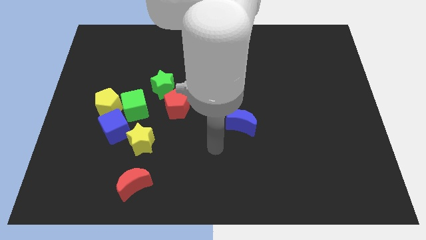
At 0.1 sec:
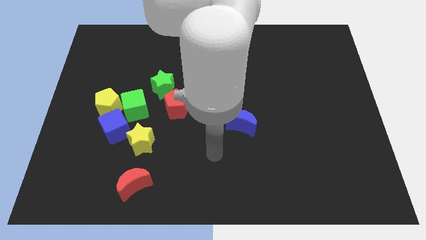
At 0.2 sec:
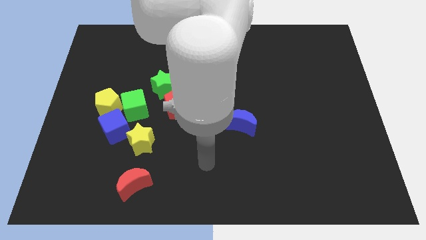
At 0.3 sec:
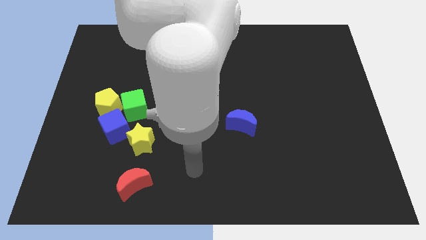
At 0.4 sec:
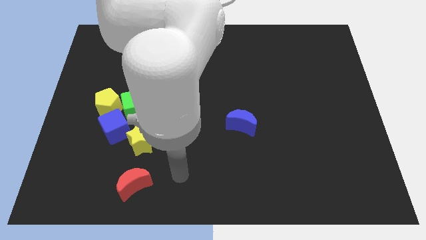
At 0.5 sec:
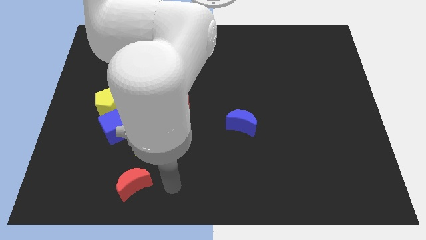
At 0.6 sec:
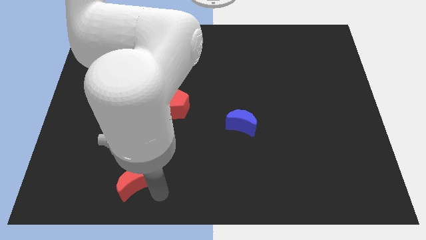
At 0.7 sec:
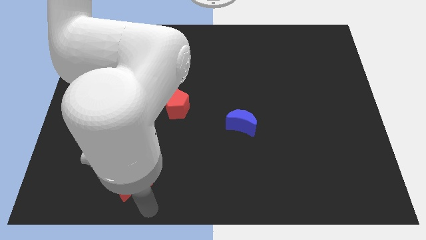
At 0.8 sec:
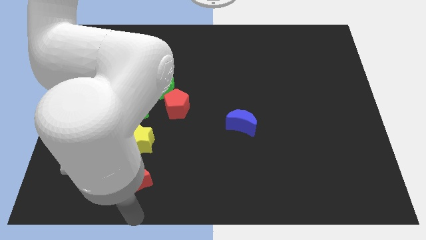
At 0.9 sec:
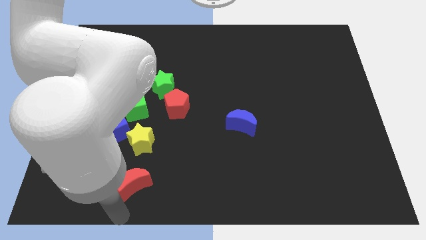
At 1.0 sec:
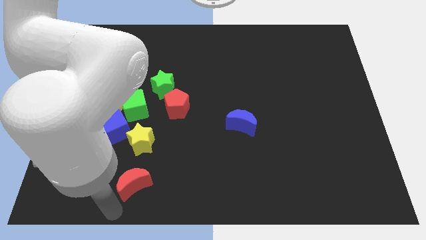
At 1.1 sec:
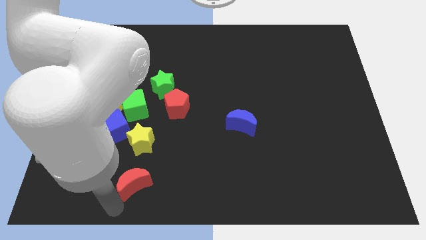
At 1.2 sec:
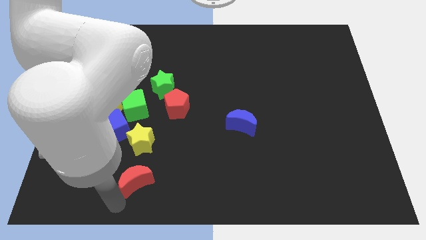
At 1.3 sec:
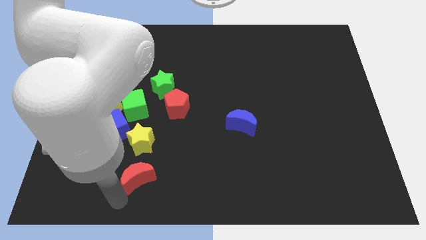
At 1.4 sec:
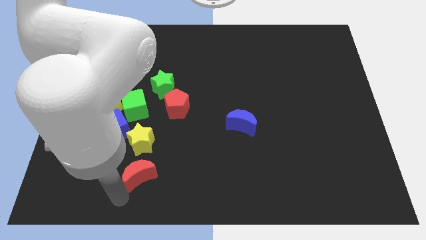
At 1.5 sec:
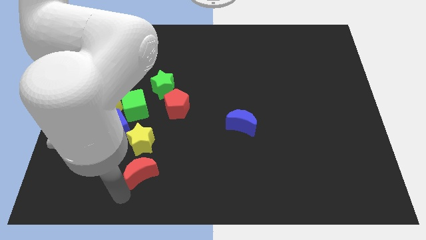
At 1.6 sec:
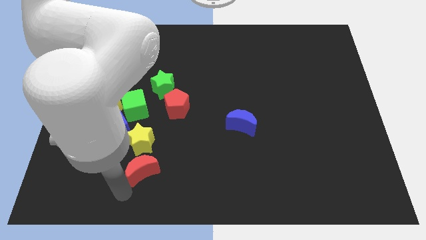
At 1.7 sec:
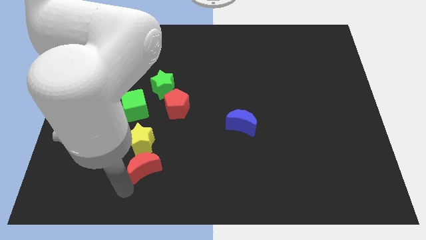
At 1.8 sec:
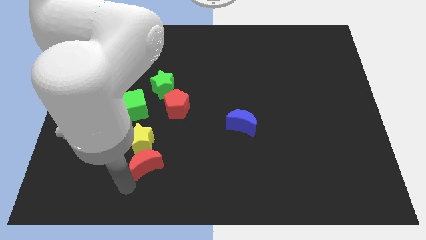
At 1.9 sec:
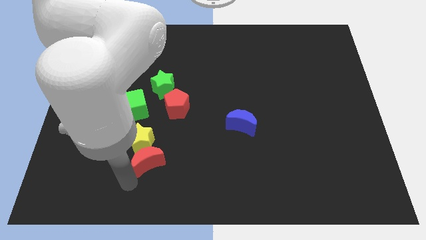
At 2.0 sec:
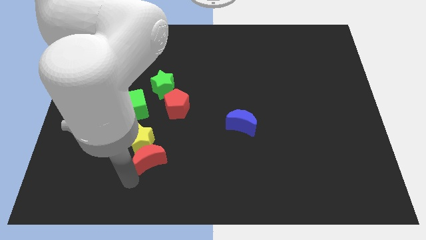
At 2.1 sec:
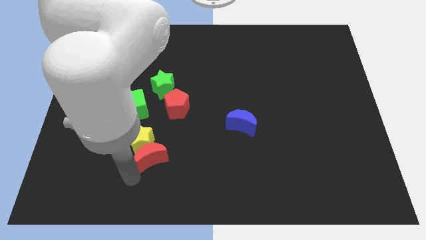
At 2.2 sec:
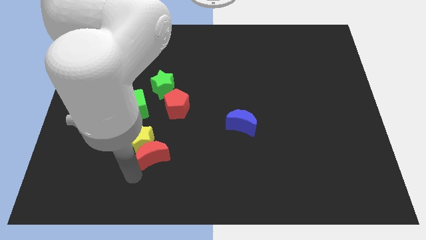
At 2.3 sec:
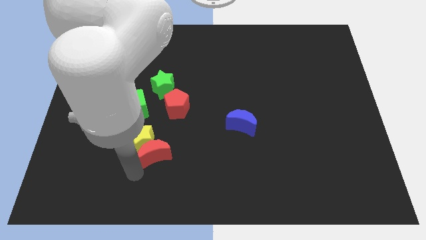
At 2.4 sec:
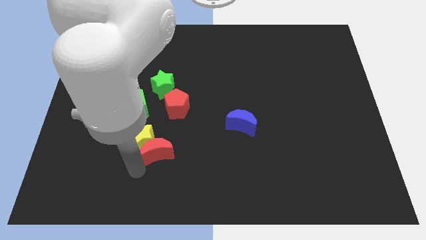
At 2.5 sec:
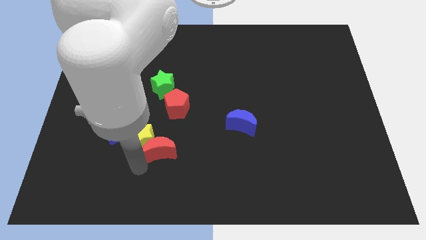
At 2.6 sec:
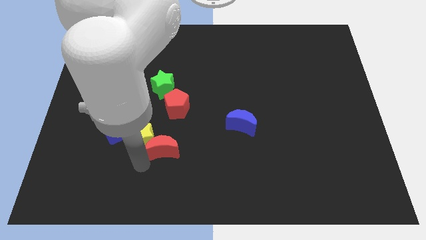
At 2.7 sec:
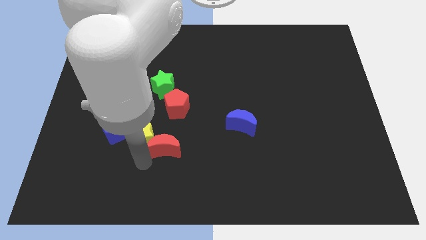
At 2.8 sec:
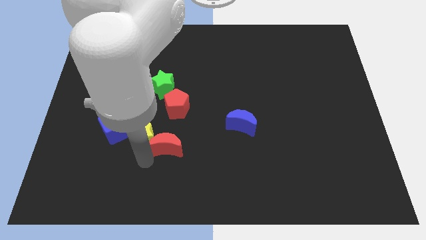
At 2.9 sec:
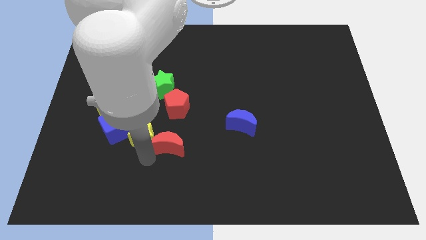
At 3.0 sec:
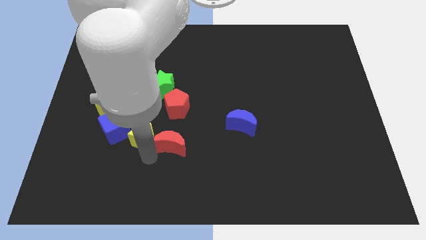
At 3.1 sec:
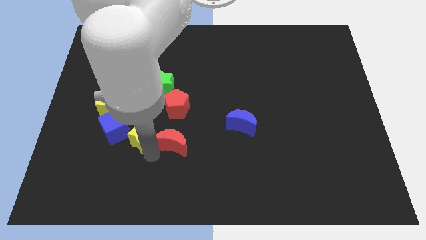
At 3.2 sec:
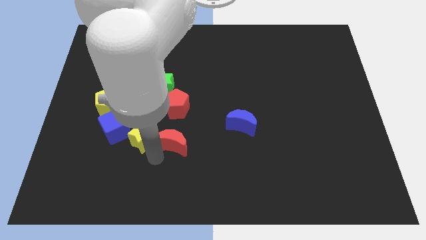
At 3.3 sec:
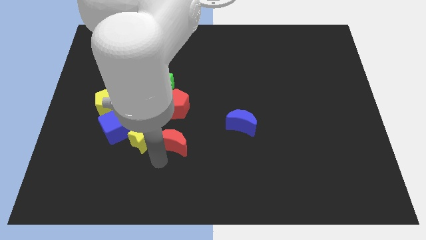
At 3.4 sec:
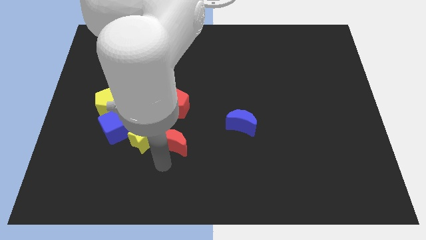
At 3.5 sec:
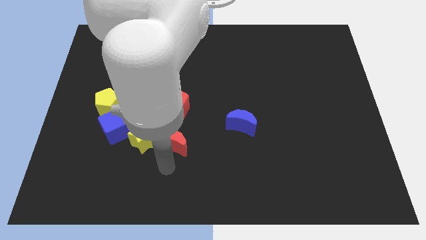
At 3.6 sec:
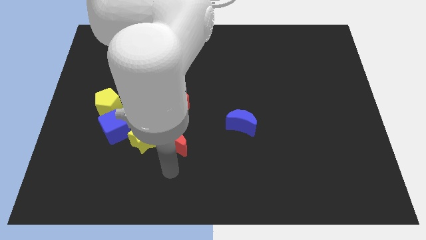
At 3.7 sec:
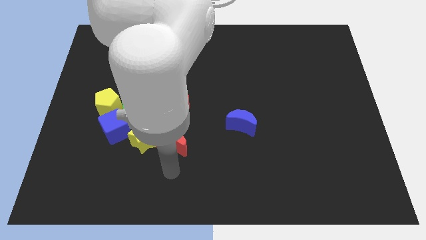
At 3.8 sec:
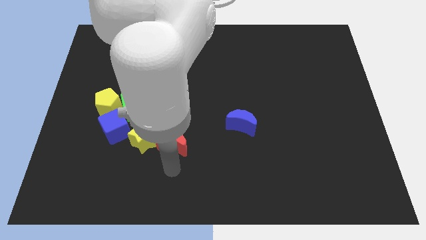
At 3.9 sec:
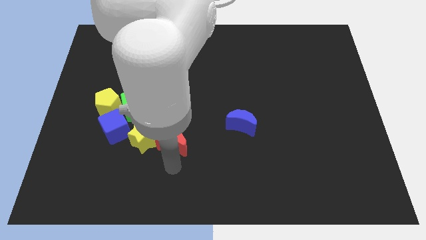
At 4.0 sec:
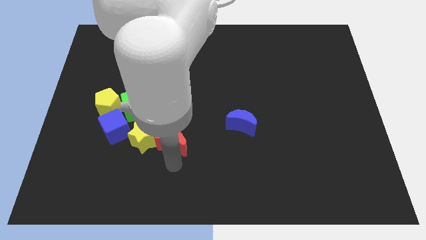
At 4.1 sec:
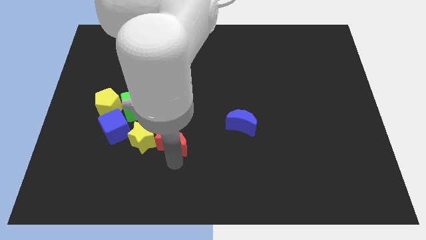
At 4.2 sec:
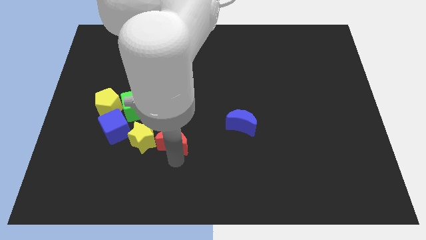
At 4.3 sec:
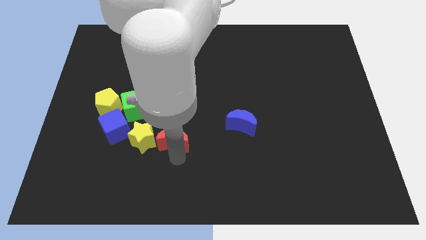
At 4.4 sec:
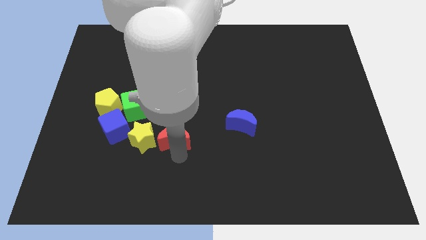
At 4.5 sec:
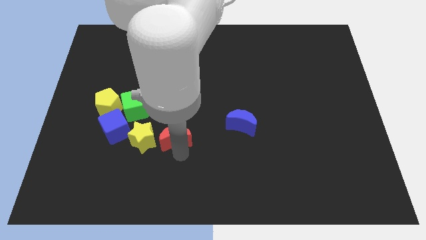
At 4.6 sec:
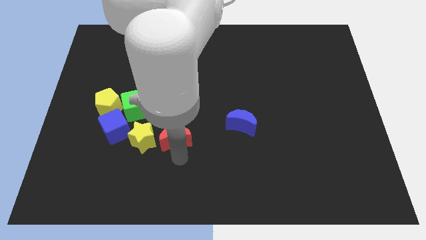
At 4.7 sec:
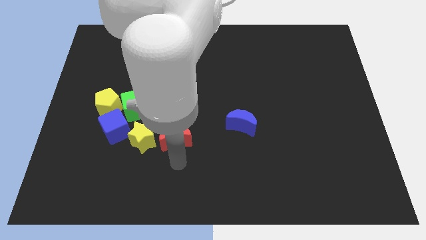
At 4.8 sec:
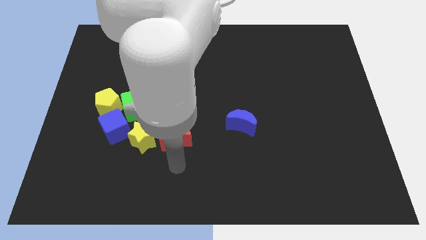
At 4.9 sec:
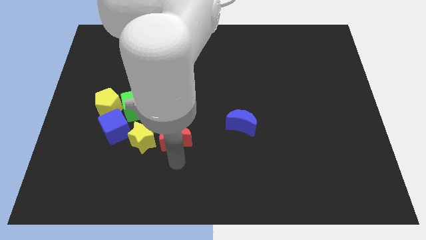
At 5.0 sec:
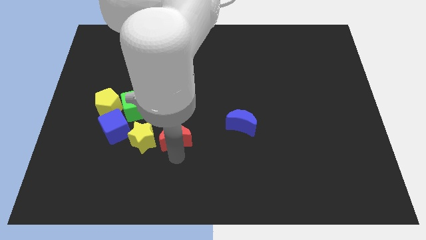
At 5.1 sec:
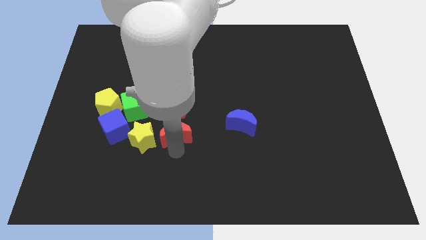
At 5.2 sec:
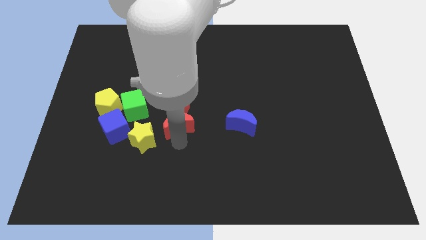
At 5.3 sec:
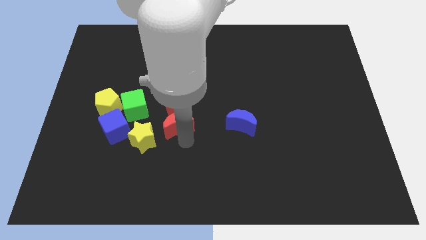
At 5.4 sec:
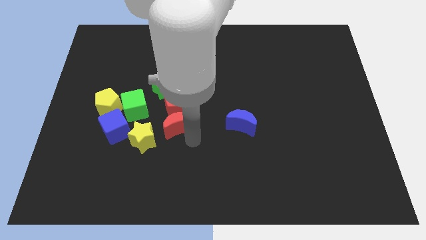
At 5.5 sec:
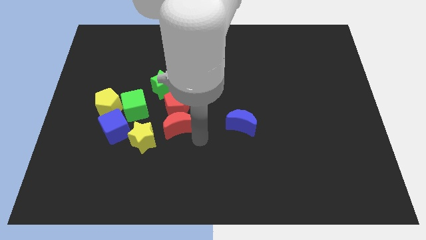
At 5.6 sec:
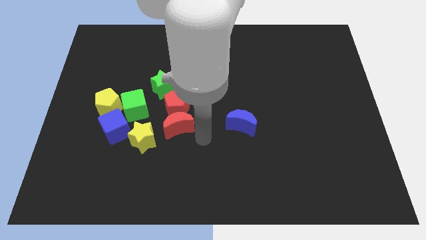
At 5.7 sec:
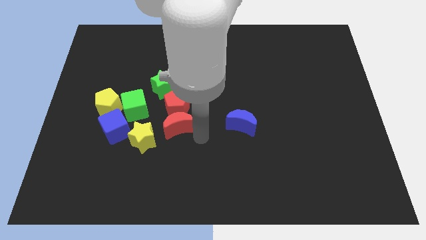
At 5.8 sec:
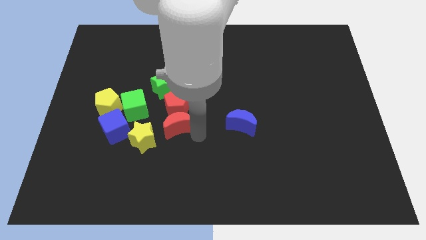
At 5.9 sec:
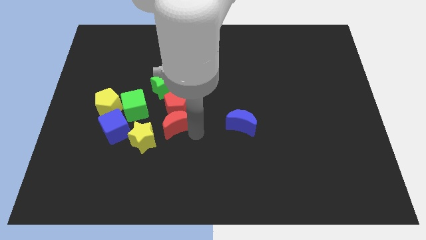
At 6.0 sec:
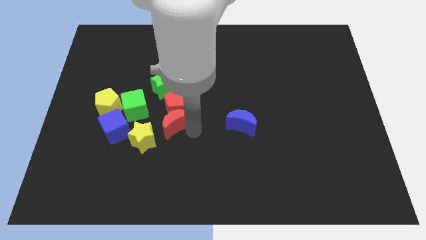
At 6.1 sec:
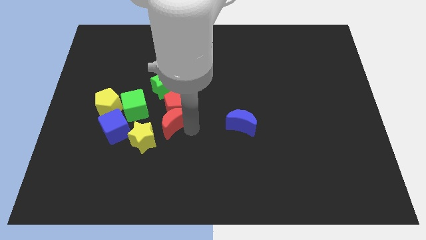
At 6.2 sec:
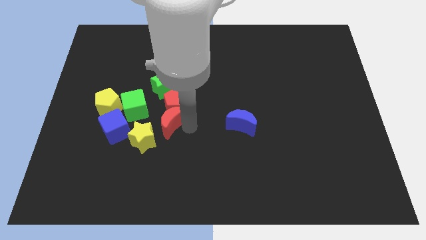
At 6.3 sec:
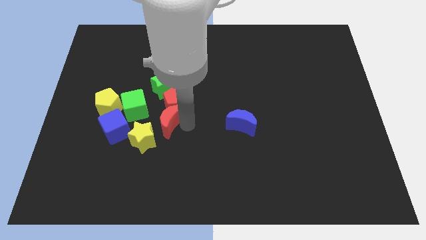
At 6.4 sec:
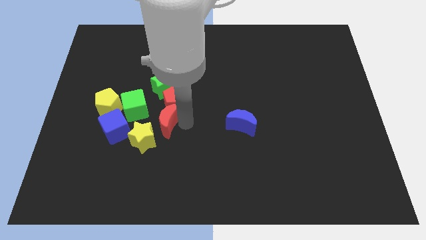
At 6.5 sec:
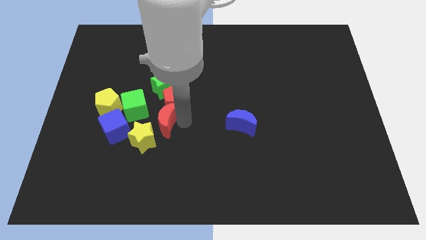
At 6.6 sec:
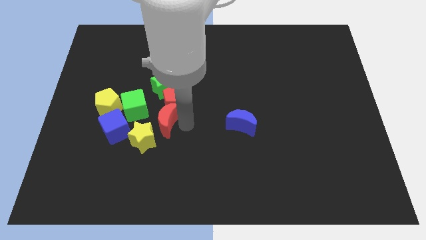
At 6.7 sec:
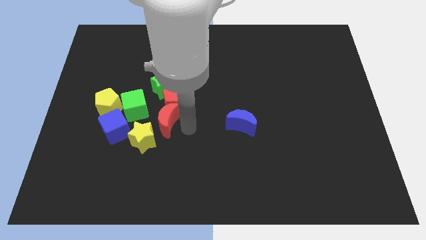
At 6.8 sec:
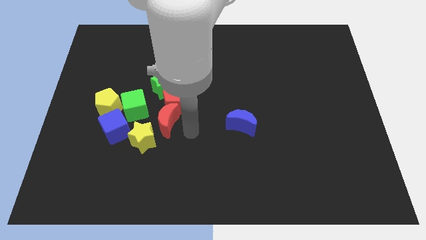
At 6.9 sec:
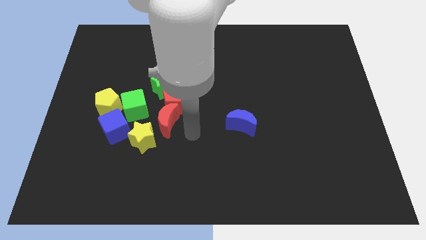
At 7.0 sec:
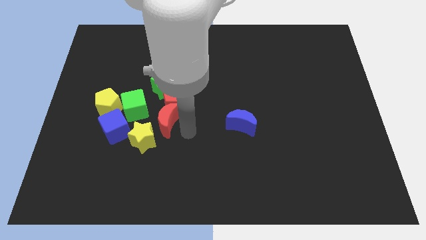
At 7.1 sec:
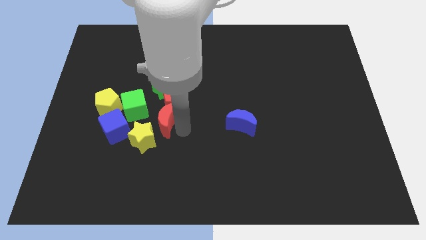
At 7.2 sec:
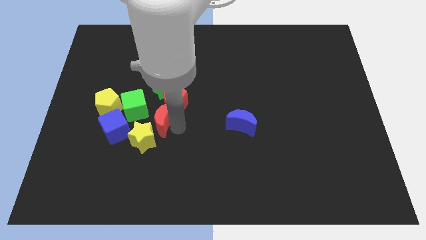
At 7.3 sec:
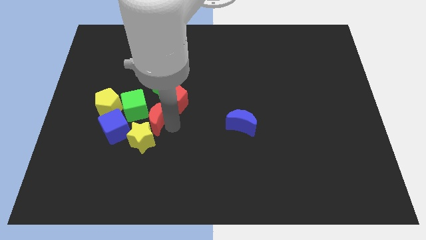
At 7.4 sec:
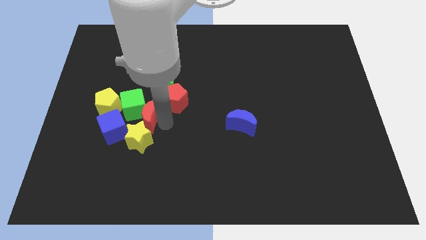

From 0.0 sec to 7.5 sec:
move the red moon to the green cube

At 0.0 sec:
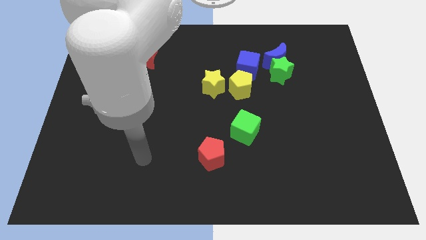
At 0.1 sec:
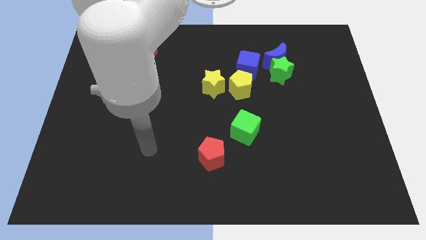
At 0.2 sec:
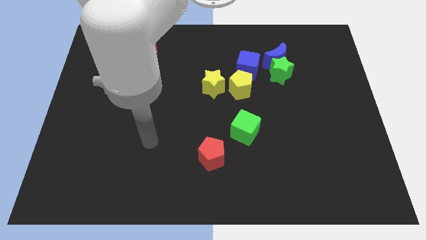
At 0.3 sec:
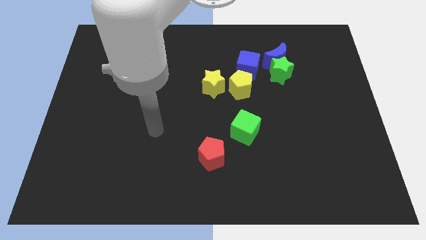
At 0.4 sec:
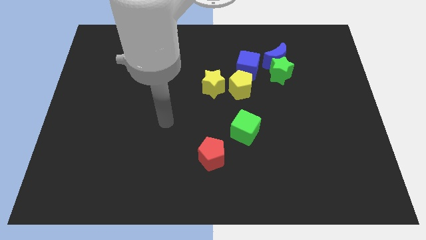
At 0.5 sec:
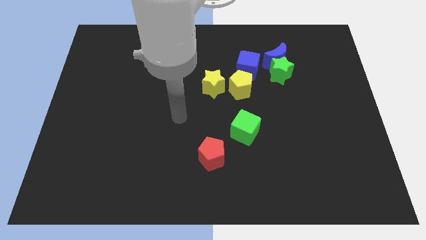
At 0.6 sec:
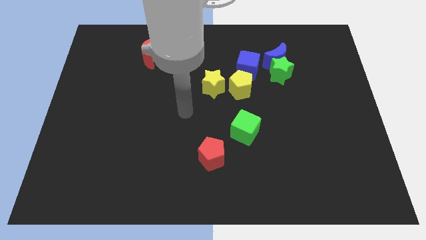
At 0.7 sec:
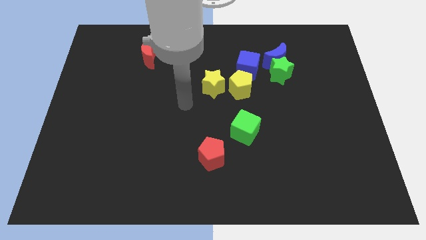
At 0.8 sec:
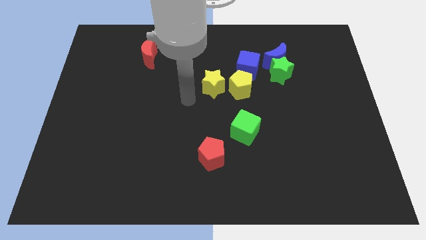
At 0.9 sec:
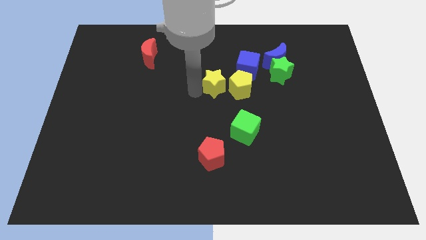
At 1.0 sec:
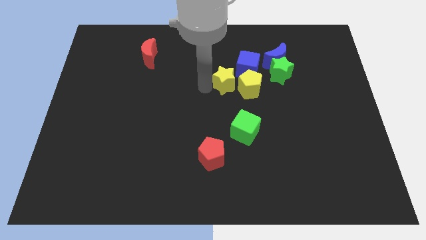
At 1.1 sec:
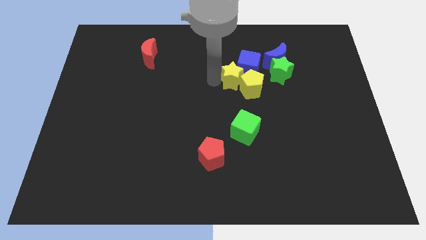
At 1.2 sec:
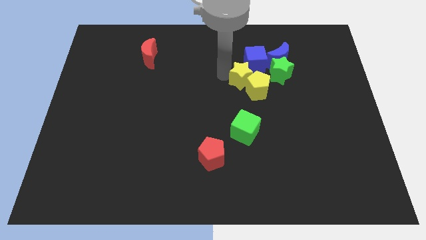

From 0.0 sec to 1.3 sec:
move the blue cube next to the blue moon
